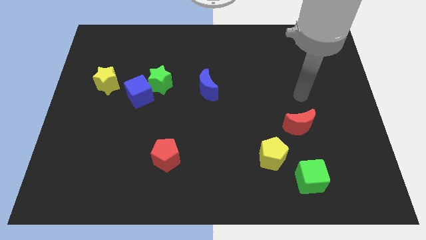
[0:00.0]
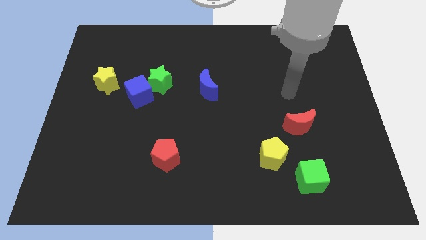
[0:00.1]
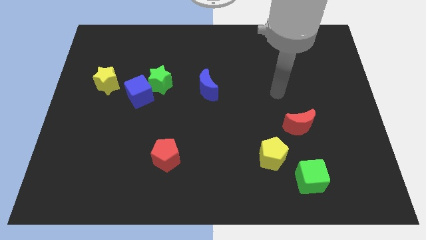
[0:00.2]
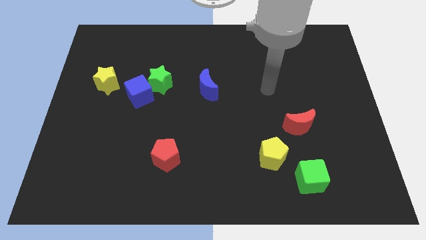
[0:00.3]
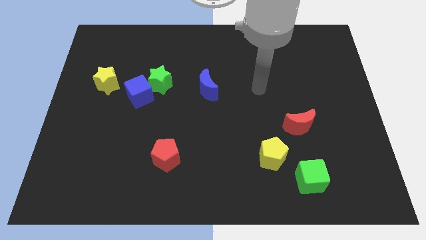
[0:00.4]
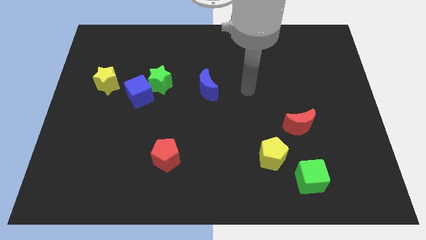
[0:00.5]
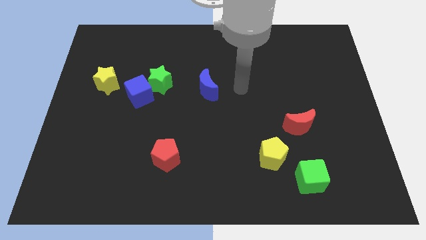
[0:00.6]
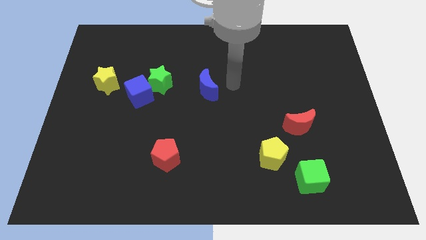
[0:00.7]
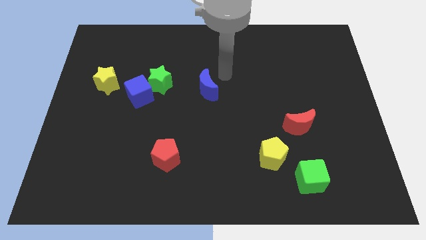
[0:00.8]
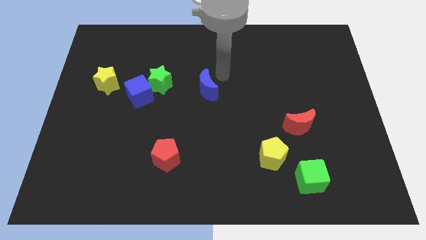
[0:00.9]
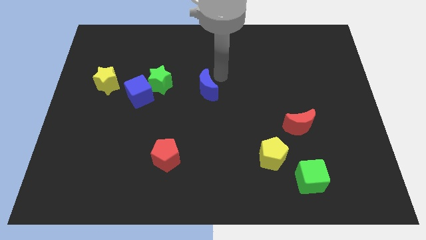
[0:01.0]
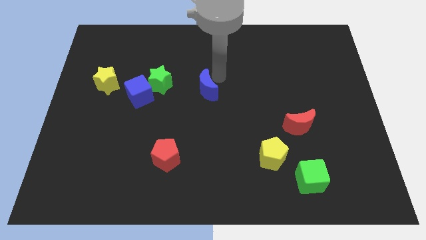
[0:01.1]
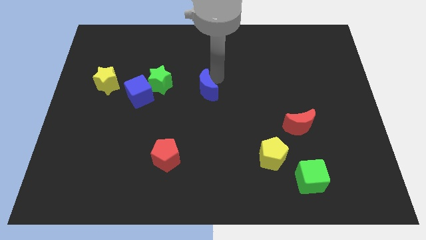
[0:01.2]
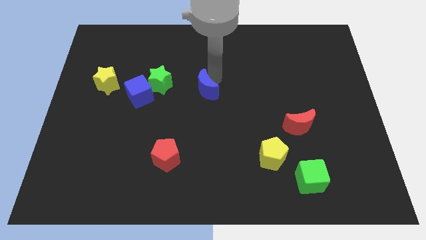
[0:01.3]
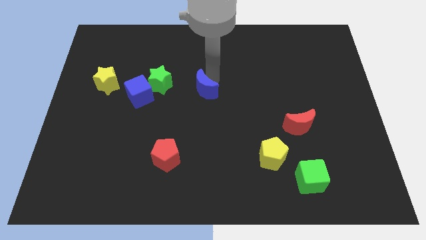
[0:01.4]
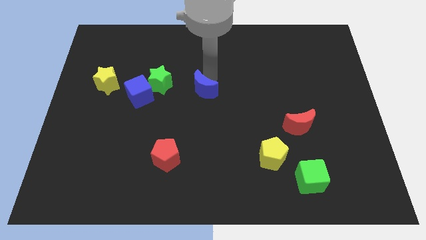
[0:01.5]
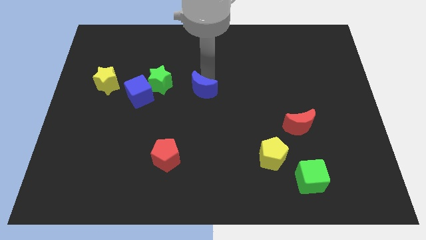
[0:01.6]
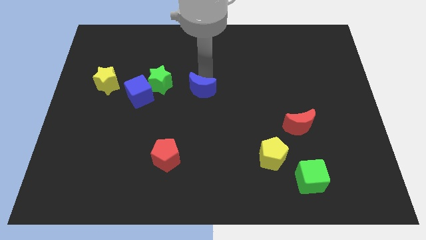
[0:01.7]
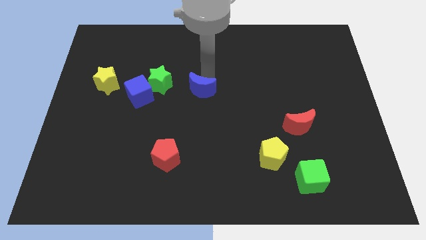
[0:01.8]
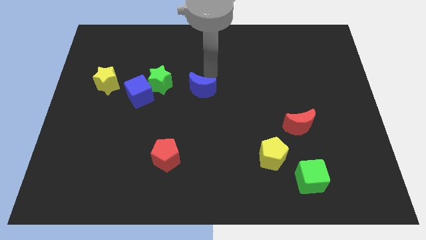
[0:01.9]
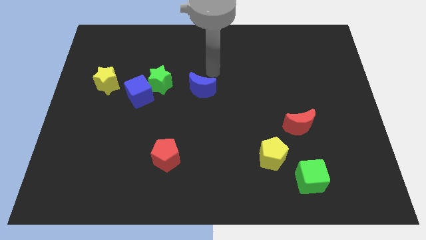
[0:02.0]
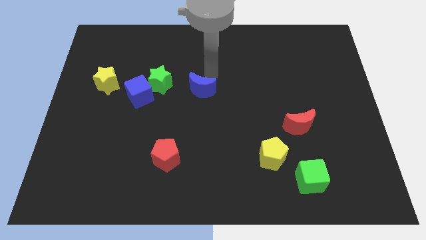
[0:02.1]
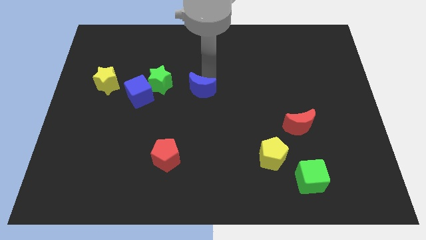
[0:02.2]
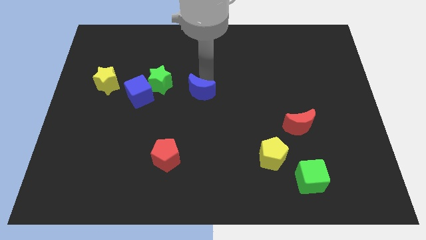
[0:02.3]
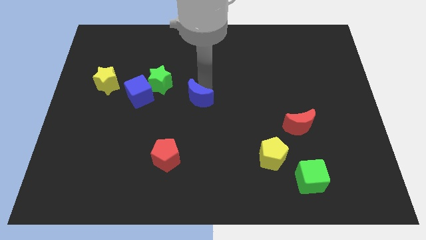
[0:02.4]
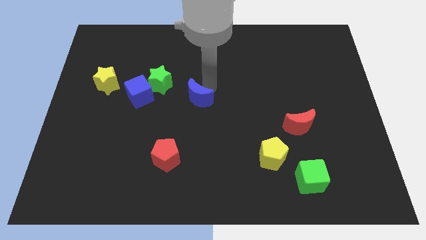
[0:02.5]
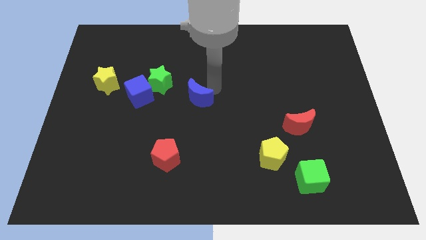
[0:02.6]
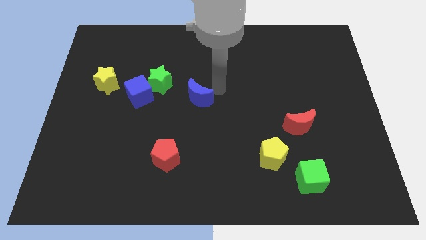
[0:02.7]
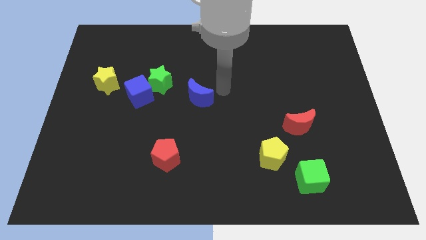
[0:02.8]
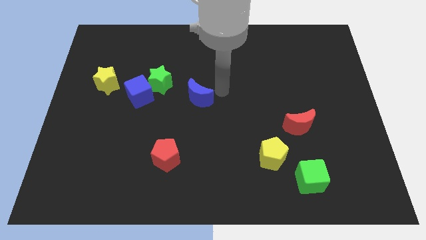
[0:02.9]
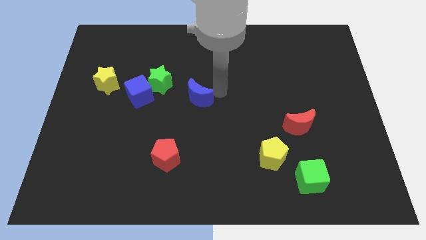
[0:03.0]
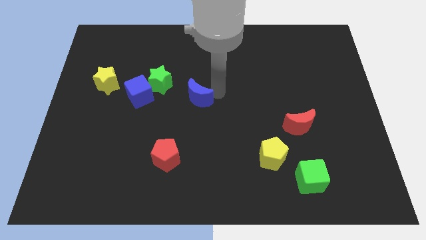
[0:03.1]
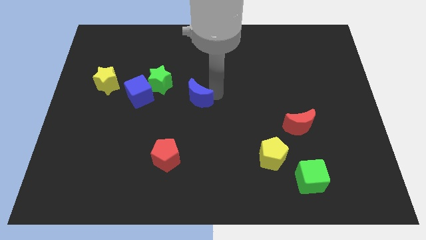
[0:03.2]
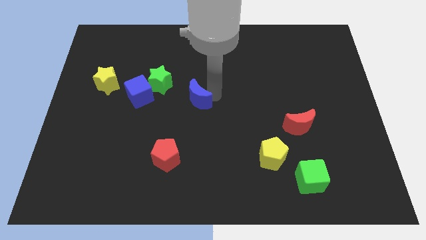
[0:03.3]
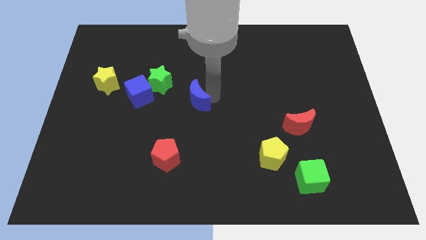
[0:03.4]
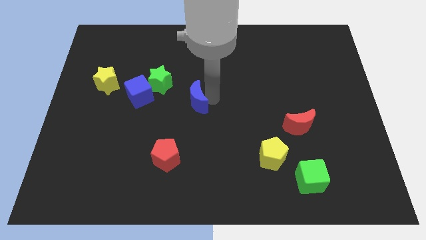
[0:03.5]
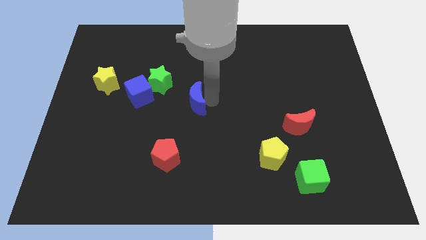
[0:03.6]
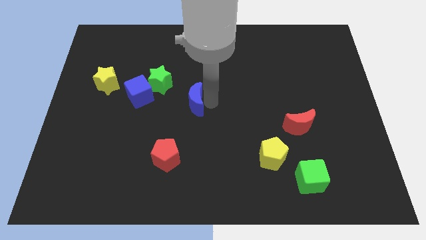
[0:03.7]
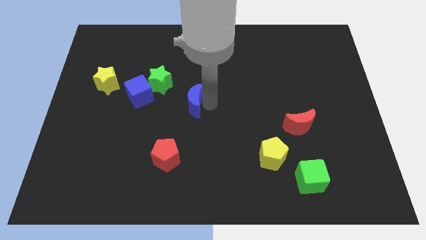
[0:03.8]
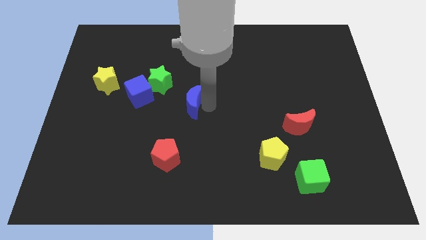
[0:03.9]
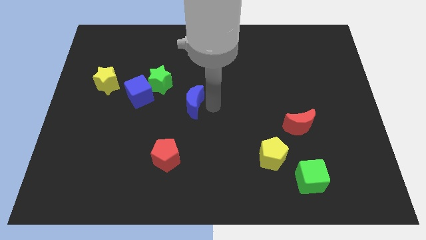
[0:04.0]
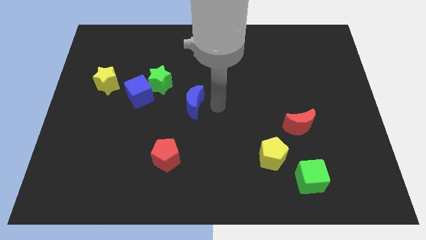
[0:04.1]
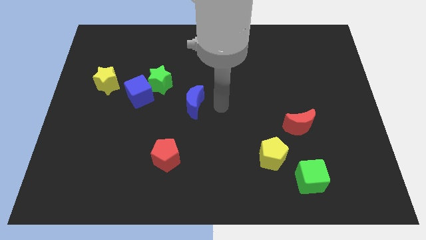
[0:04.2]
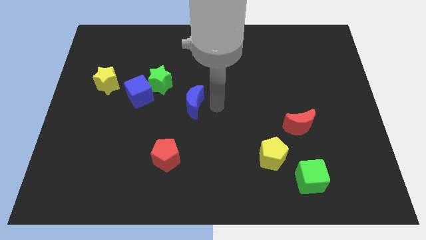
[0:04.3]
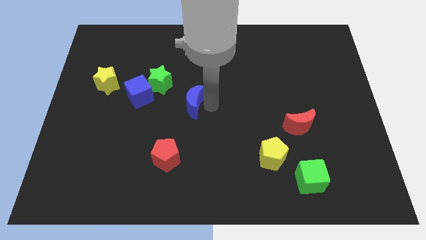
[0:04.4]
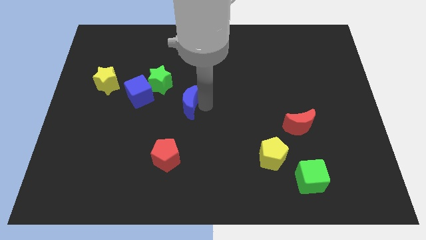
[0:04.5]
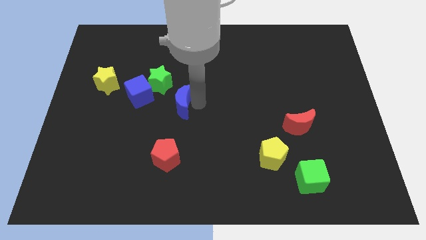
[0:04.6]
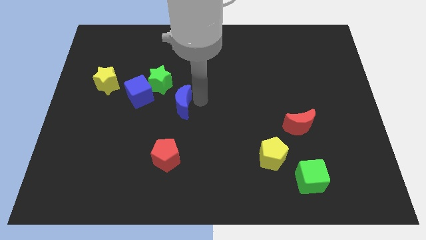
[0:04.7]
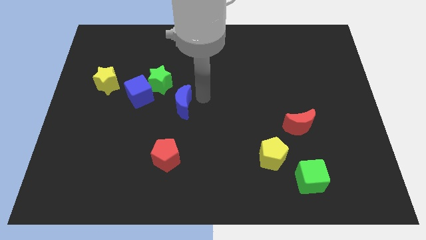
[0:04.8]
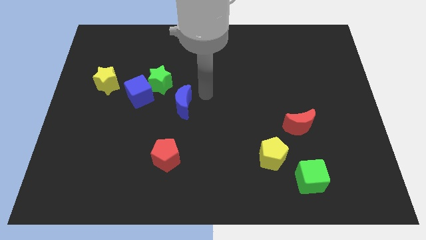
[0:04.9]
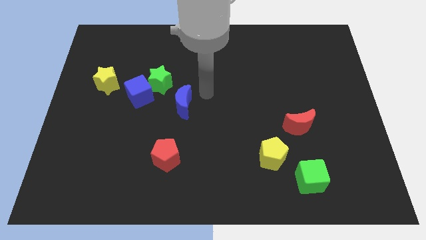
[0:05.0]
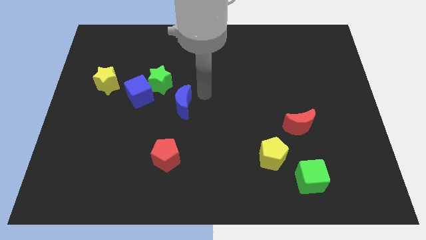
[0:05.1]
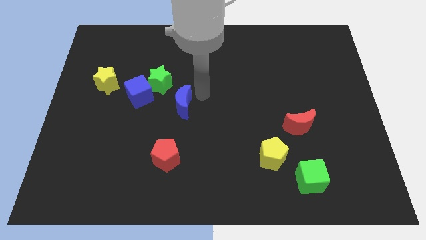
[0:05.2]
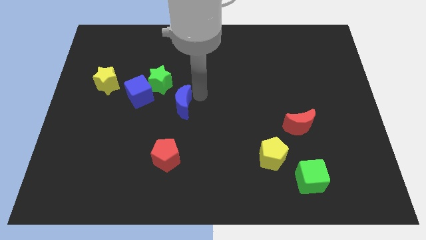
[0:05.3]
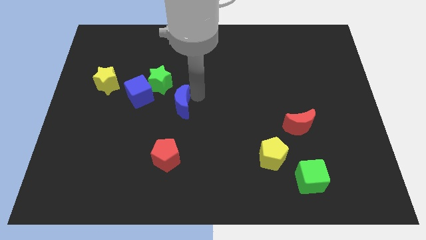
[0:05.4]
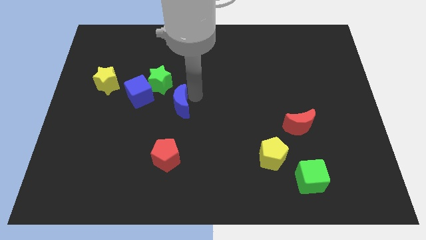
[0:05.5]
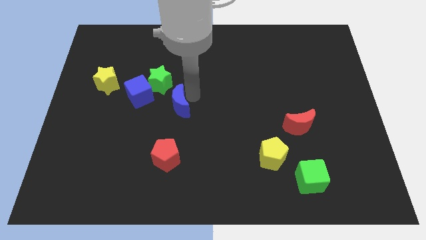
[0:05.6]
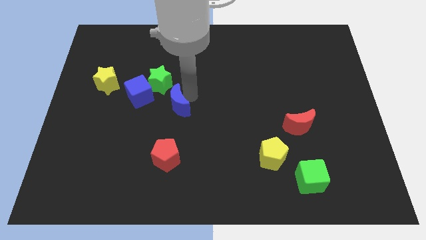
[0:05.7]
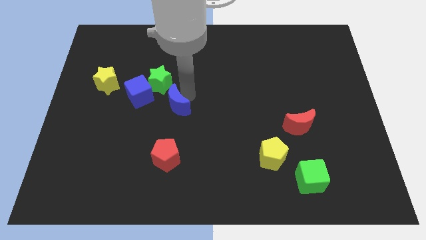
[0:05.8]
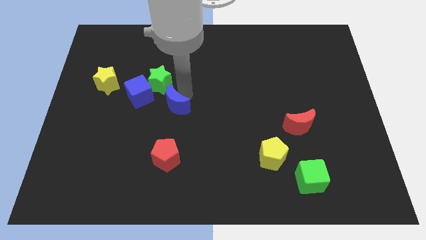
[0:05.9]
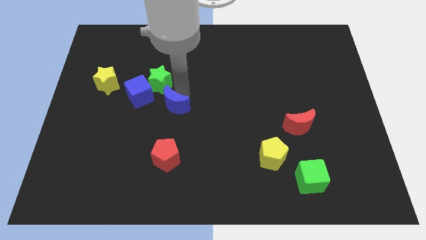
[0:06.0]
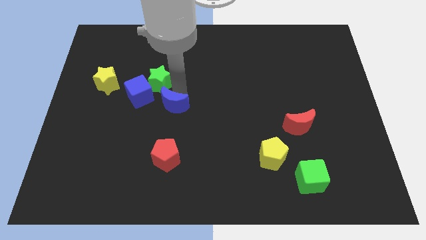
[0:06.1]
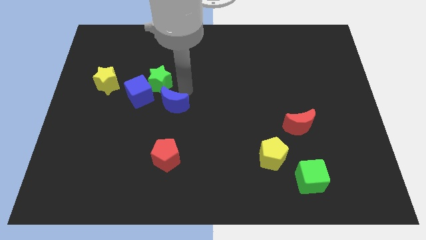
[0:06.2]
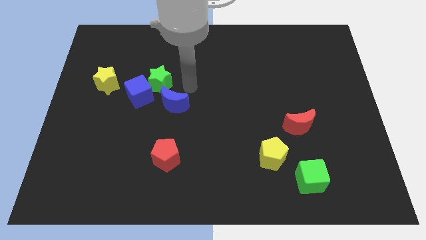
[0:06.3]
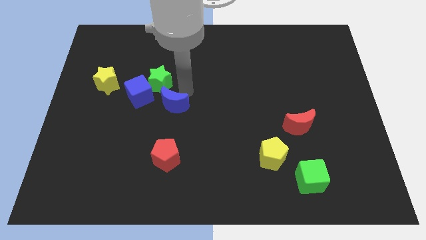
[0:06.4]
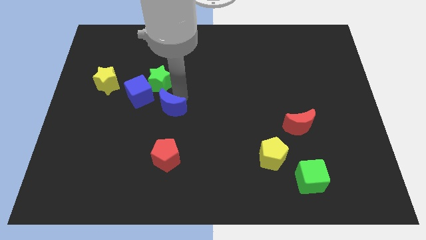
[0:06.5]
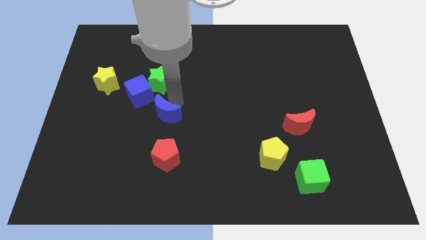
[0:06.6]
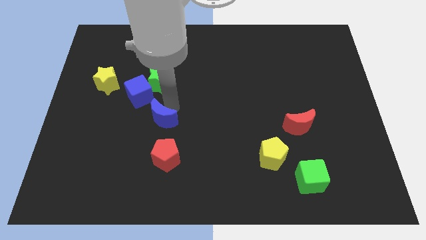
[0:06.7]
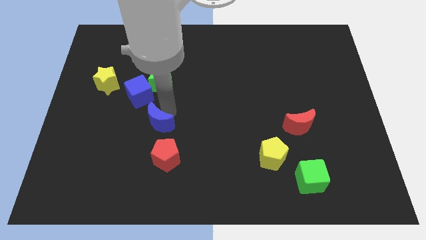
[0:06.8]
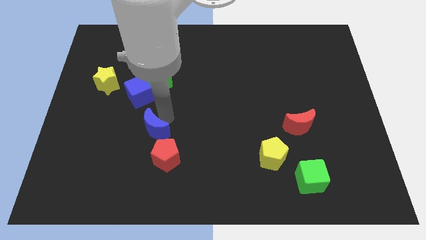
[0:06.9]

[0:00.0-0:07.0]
put the blue moon to the bottom of the blue cube
